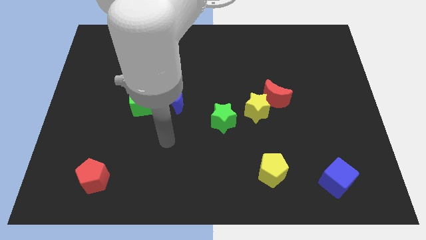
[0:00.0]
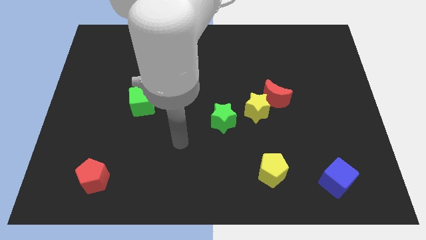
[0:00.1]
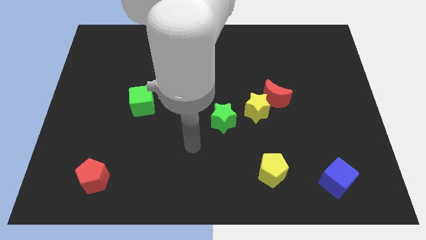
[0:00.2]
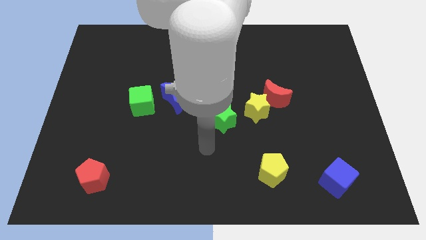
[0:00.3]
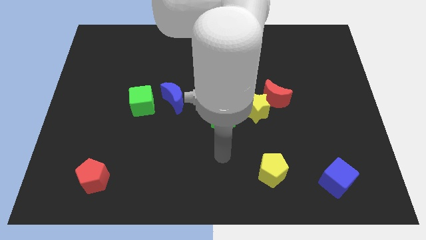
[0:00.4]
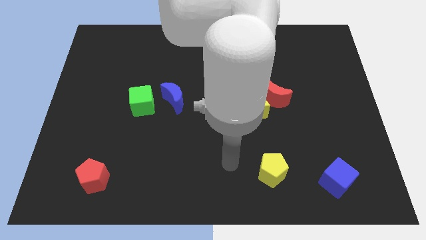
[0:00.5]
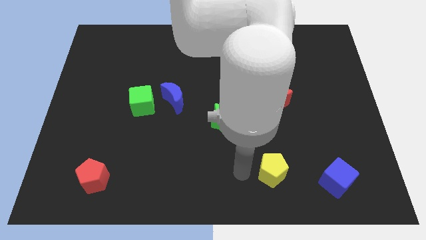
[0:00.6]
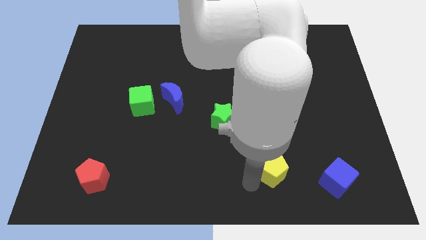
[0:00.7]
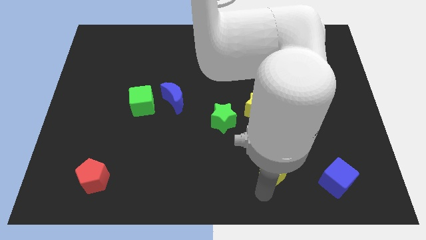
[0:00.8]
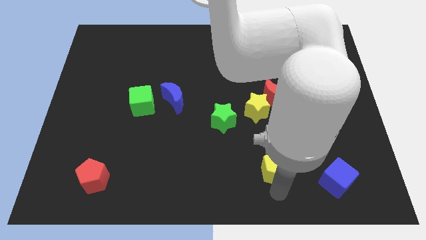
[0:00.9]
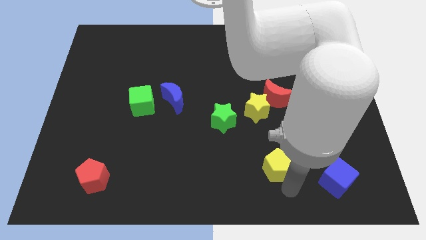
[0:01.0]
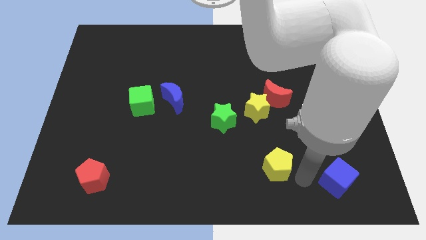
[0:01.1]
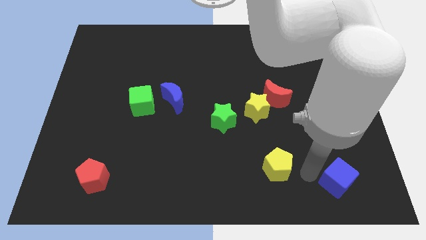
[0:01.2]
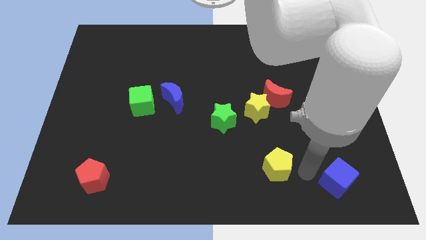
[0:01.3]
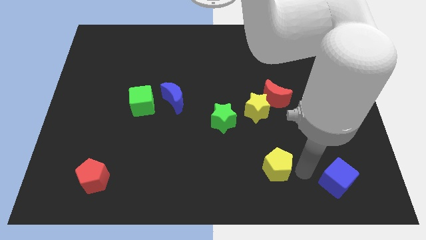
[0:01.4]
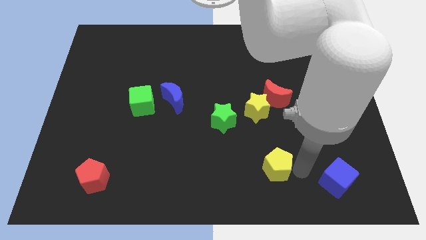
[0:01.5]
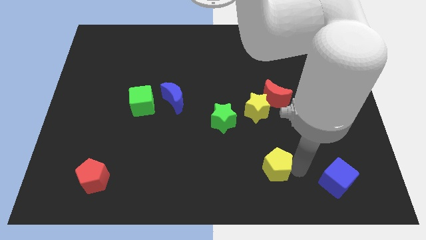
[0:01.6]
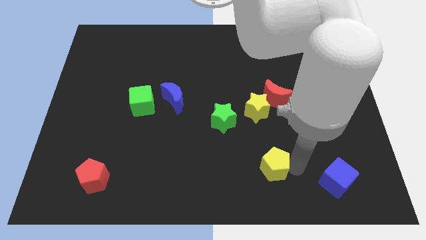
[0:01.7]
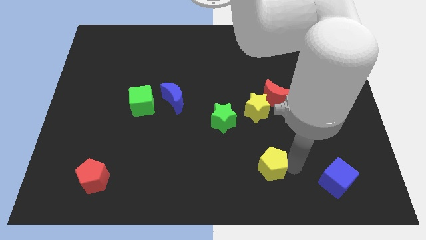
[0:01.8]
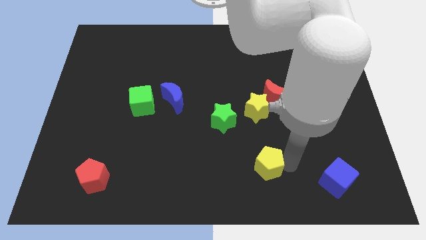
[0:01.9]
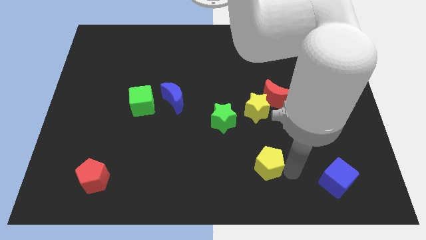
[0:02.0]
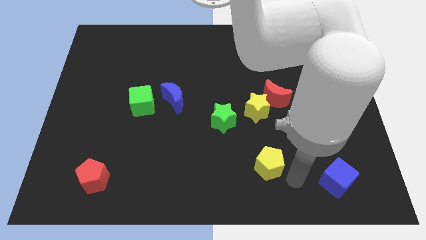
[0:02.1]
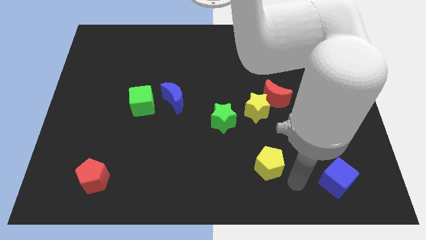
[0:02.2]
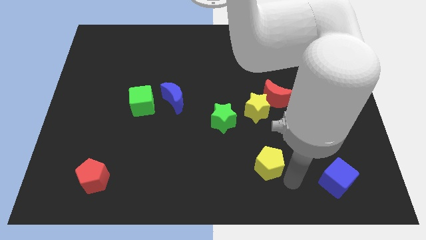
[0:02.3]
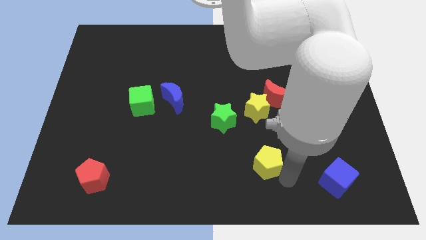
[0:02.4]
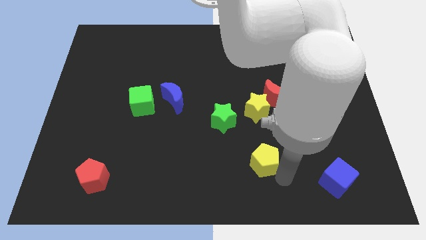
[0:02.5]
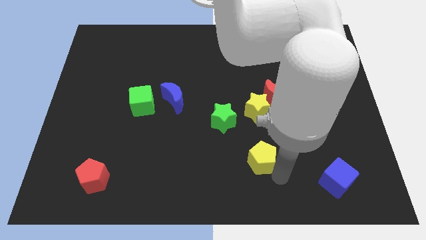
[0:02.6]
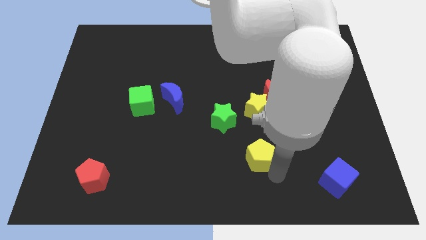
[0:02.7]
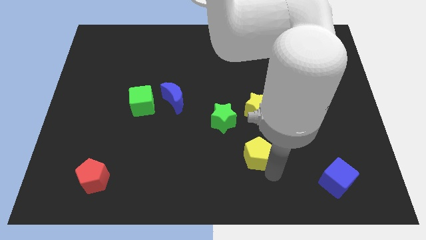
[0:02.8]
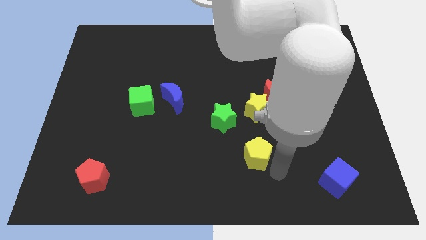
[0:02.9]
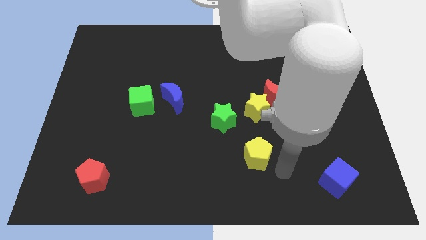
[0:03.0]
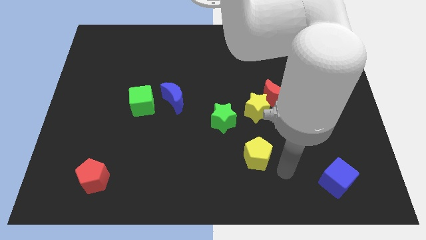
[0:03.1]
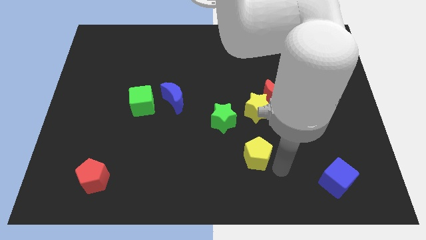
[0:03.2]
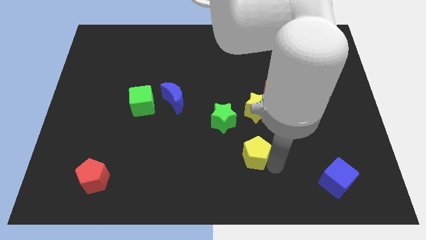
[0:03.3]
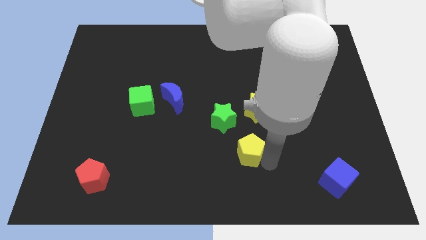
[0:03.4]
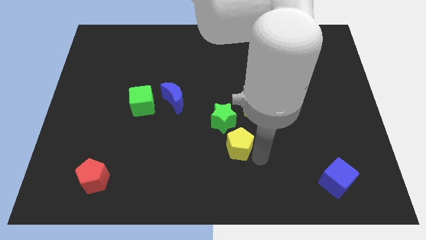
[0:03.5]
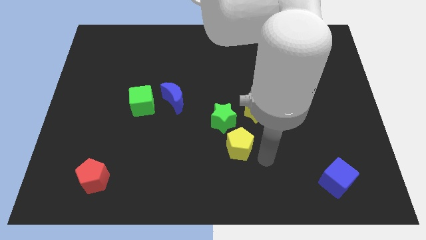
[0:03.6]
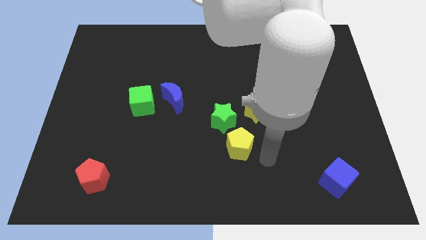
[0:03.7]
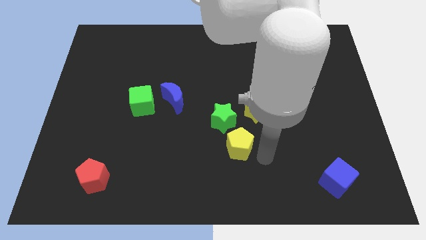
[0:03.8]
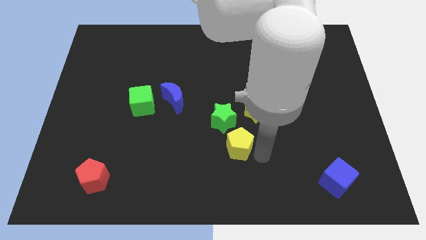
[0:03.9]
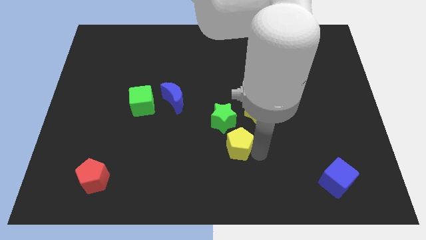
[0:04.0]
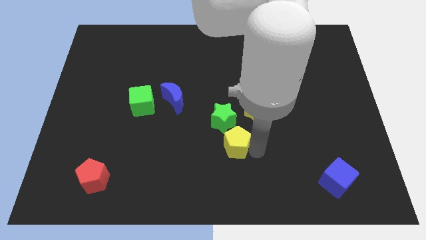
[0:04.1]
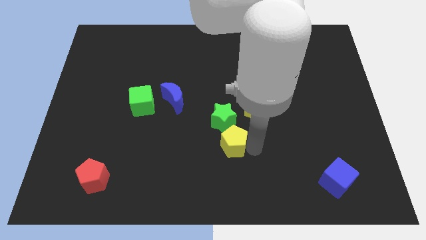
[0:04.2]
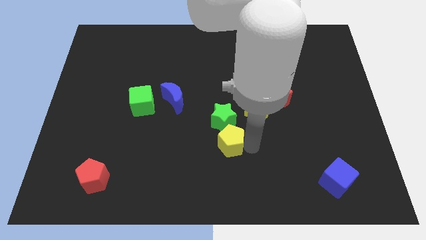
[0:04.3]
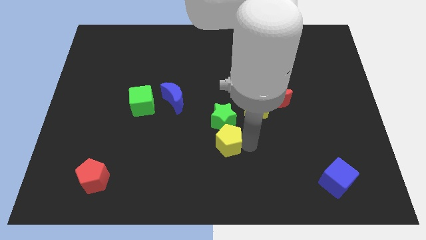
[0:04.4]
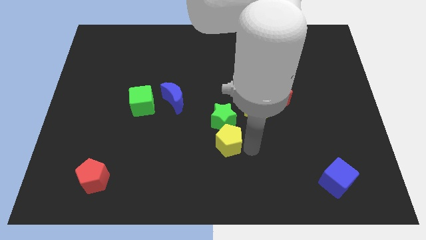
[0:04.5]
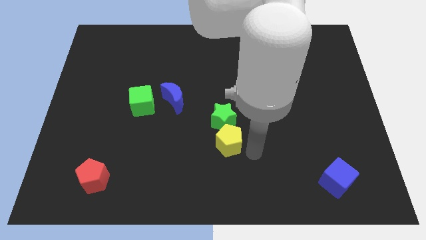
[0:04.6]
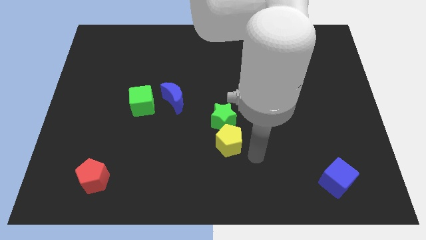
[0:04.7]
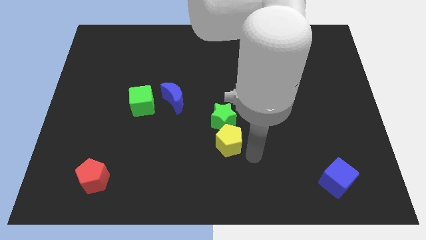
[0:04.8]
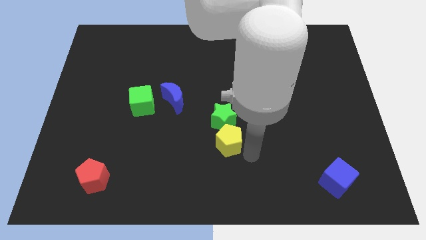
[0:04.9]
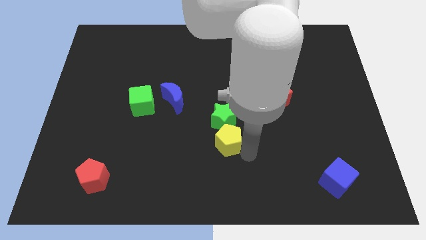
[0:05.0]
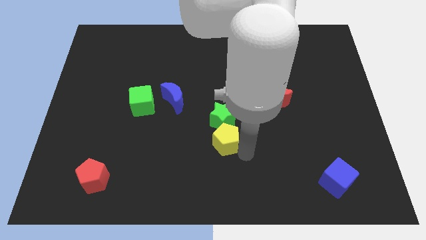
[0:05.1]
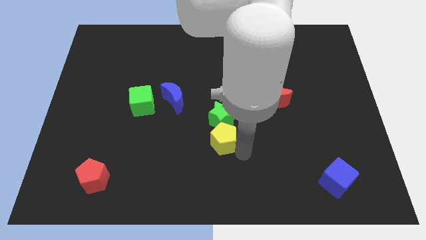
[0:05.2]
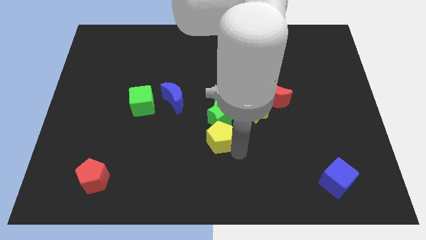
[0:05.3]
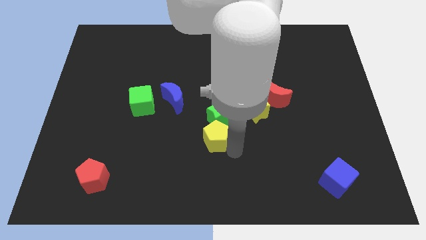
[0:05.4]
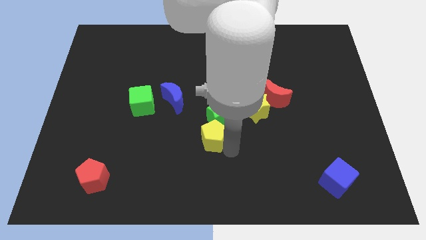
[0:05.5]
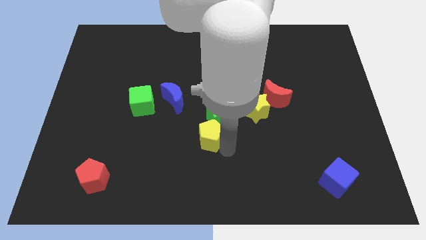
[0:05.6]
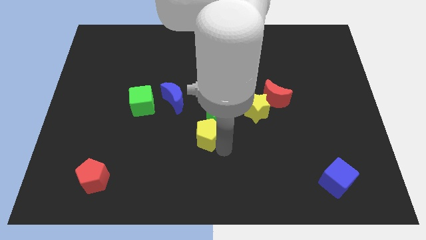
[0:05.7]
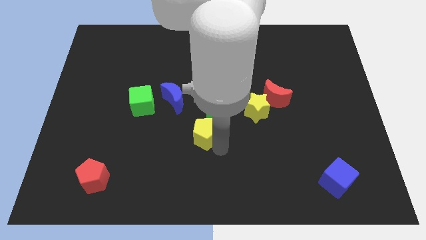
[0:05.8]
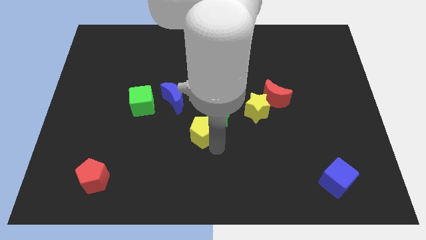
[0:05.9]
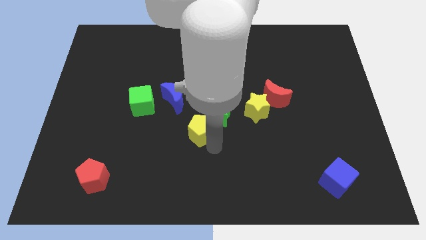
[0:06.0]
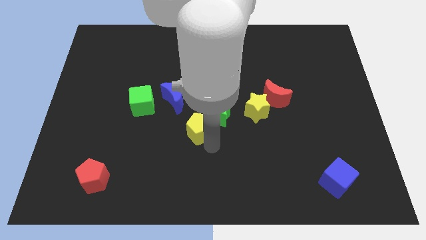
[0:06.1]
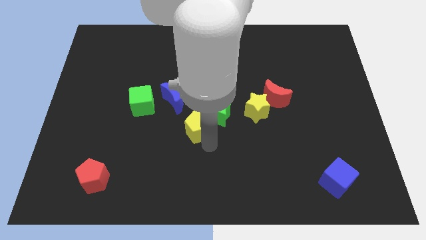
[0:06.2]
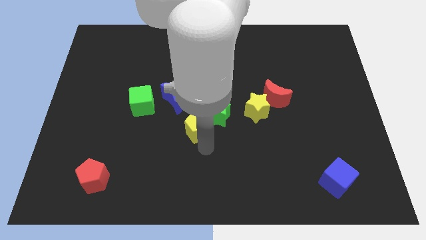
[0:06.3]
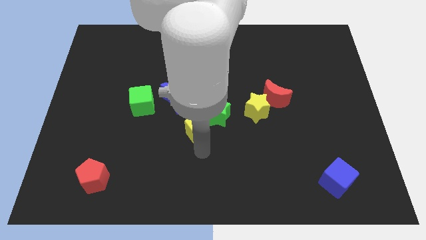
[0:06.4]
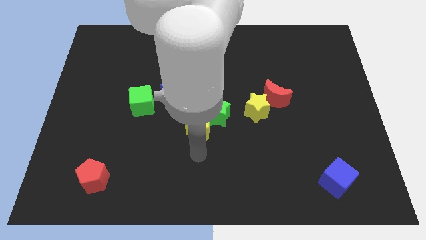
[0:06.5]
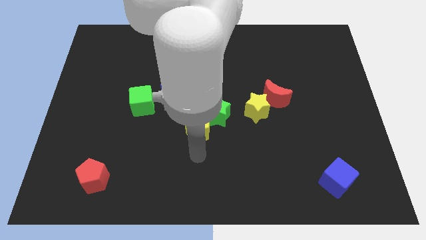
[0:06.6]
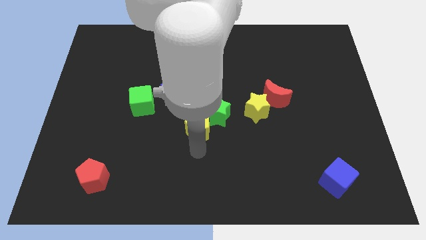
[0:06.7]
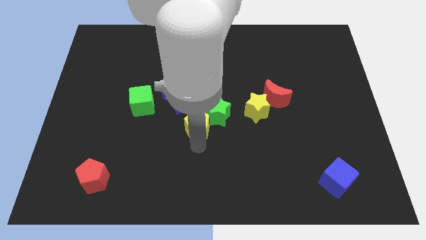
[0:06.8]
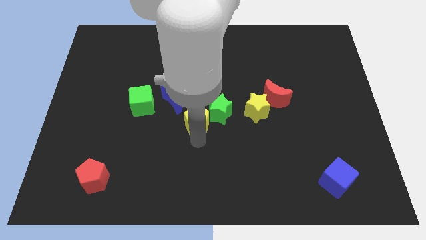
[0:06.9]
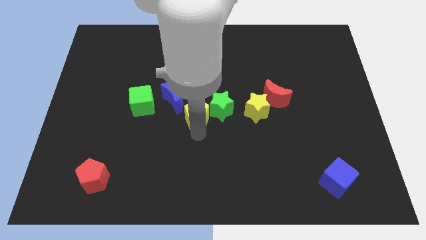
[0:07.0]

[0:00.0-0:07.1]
push the yellow pentagon diagonally up and left

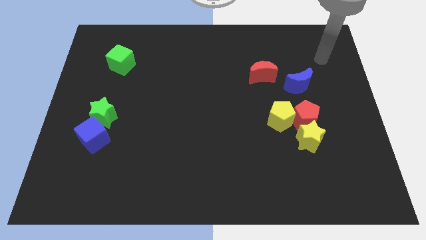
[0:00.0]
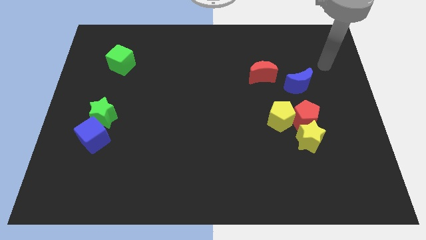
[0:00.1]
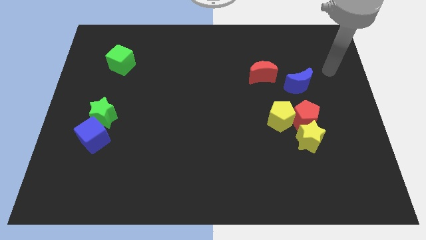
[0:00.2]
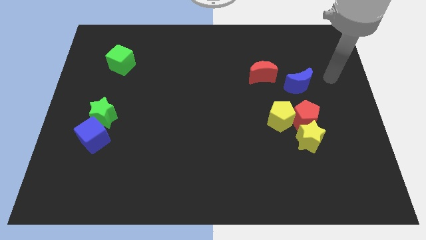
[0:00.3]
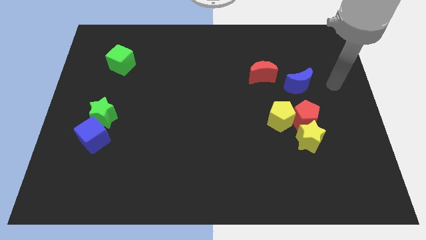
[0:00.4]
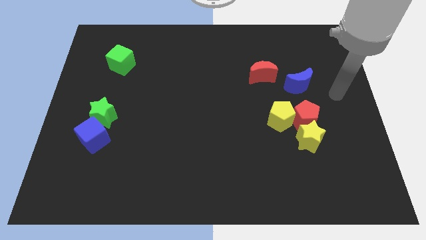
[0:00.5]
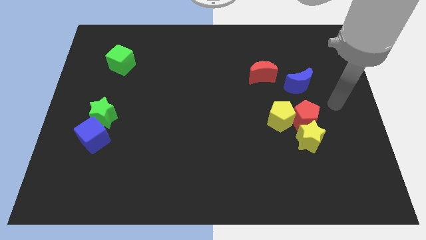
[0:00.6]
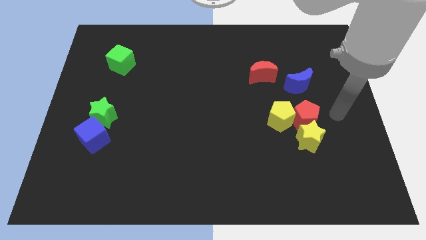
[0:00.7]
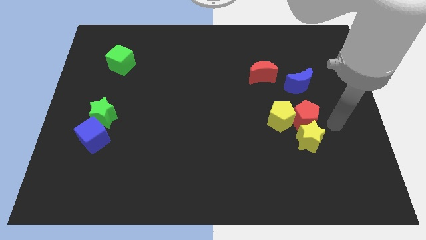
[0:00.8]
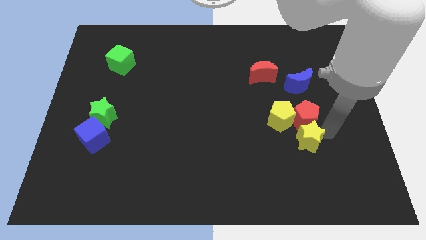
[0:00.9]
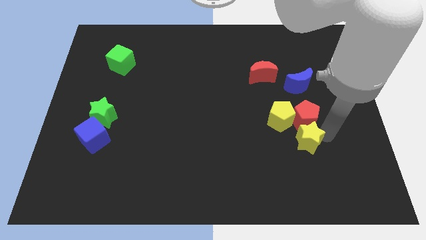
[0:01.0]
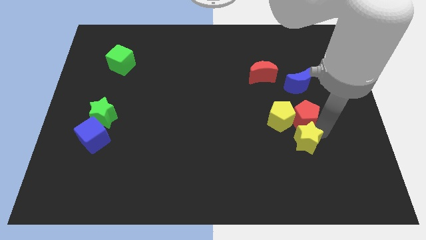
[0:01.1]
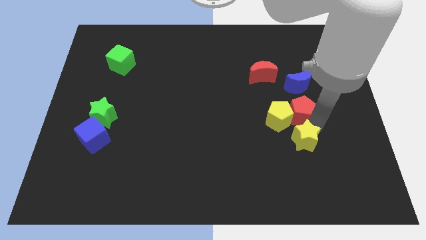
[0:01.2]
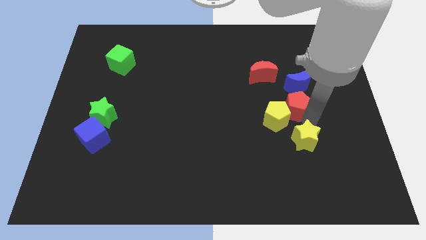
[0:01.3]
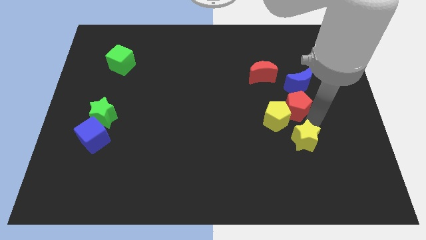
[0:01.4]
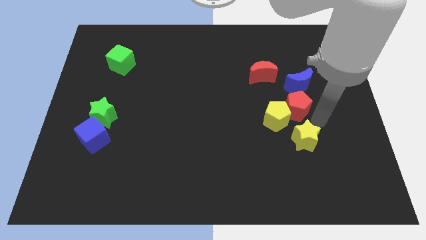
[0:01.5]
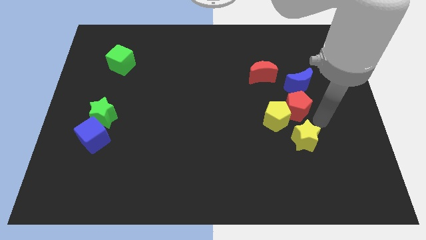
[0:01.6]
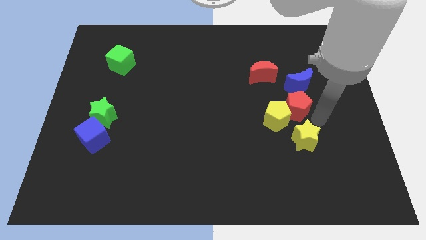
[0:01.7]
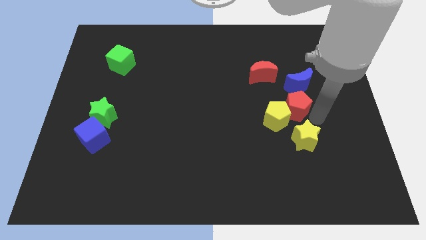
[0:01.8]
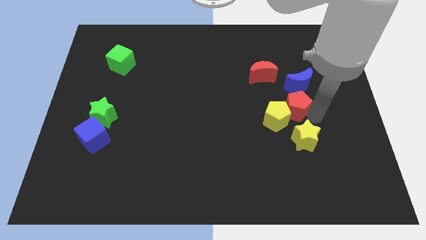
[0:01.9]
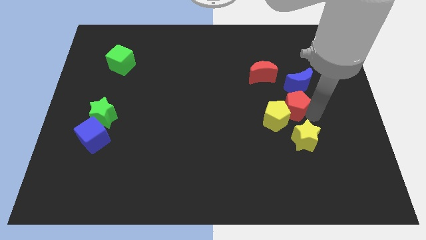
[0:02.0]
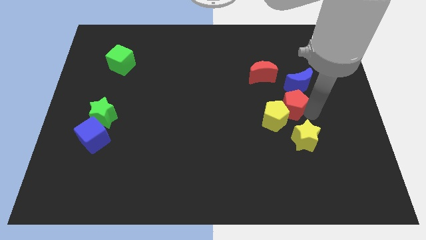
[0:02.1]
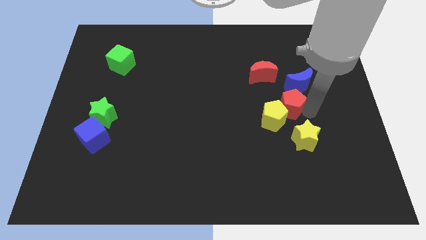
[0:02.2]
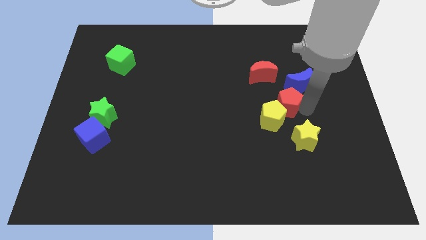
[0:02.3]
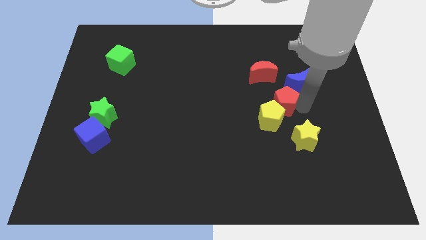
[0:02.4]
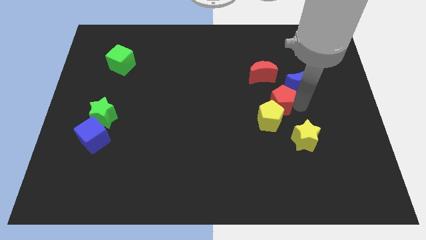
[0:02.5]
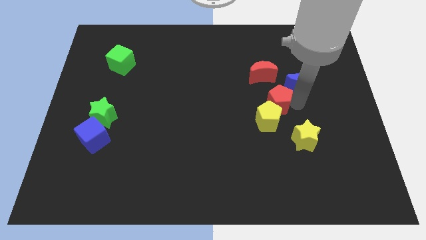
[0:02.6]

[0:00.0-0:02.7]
move the red pentagon a little bit diagonally up and to the left
